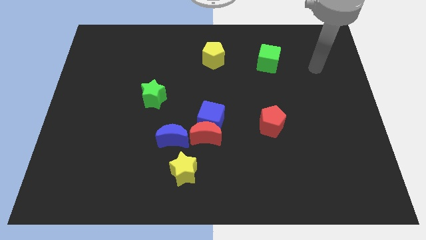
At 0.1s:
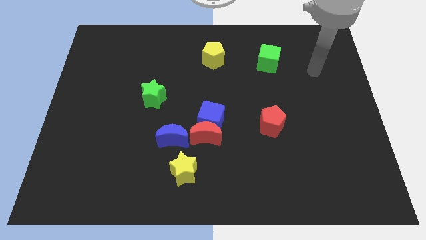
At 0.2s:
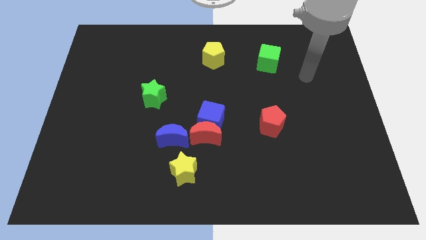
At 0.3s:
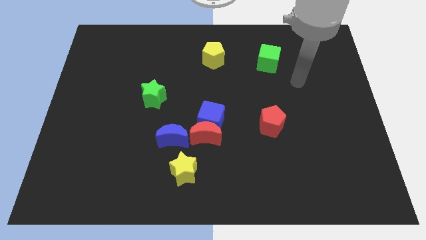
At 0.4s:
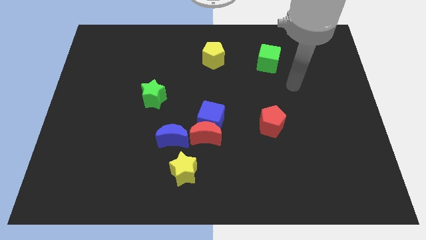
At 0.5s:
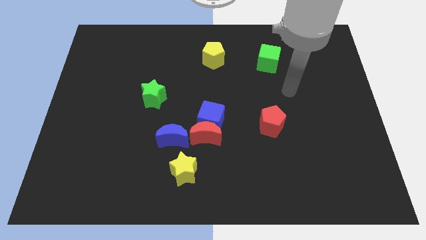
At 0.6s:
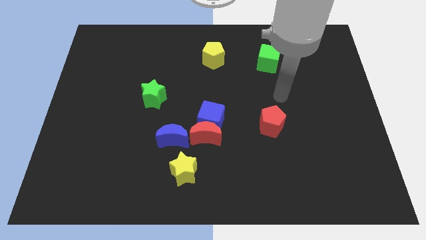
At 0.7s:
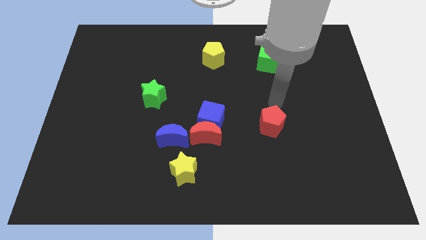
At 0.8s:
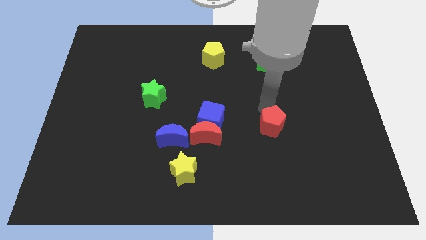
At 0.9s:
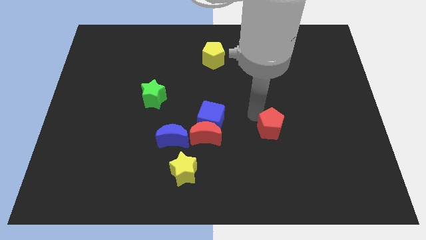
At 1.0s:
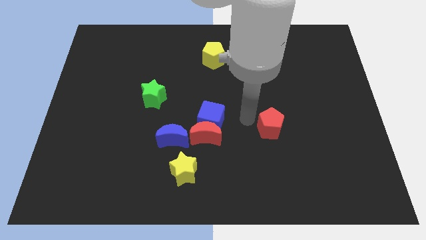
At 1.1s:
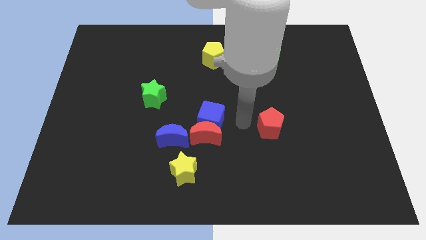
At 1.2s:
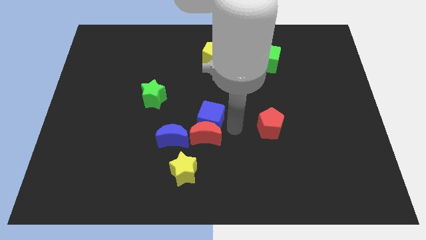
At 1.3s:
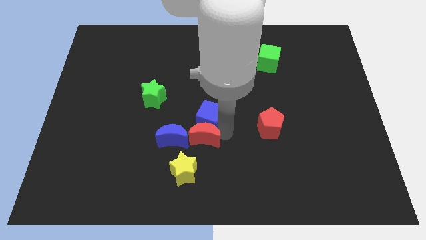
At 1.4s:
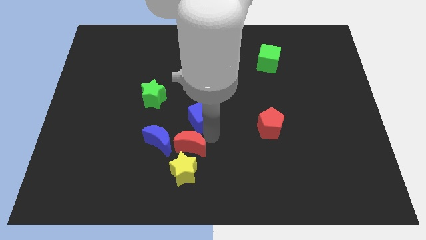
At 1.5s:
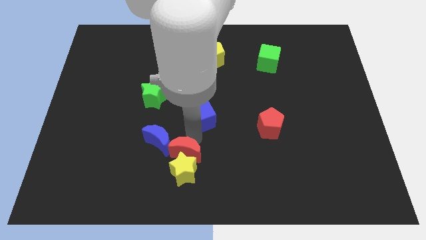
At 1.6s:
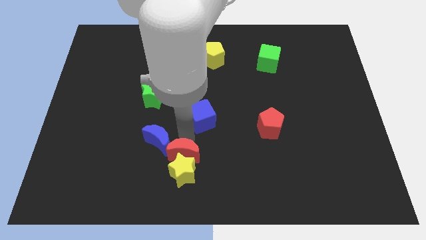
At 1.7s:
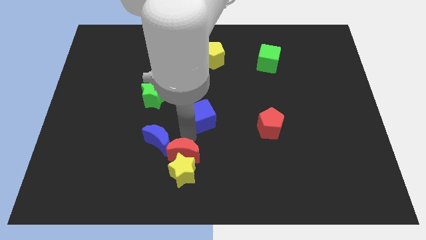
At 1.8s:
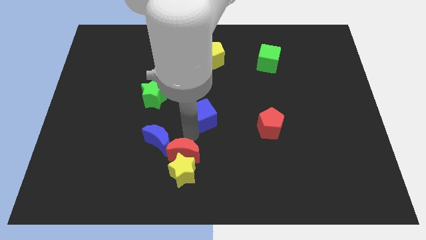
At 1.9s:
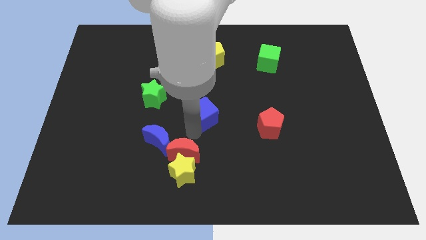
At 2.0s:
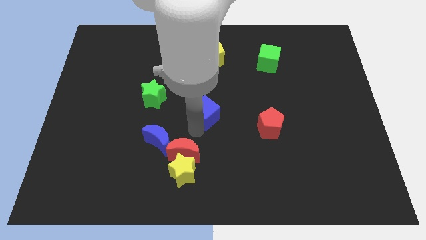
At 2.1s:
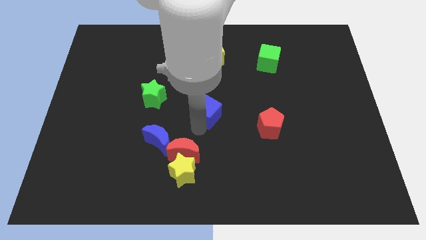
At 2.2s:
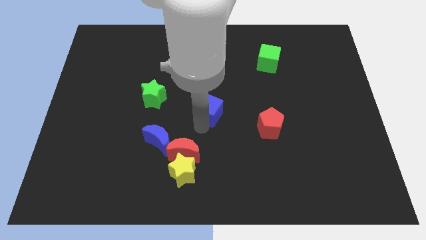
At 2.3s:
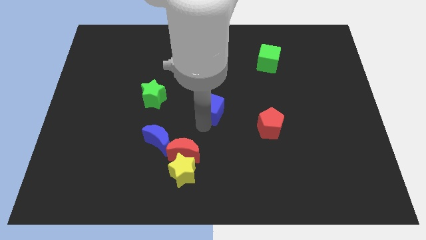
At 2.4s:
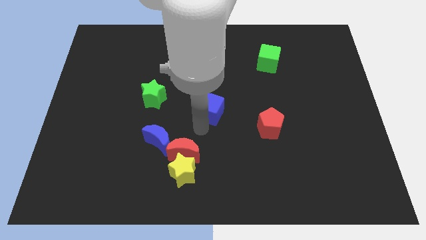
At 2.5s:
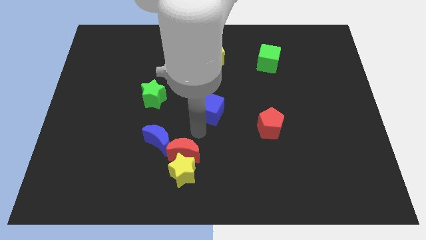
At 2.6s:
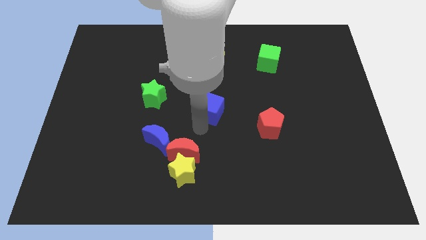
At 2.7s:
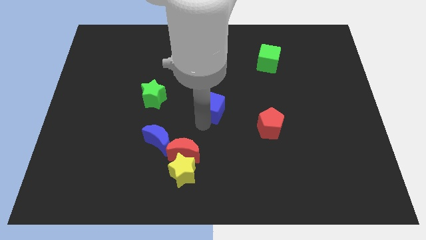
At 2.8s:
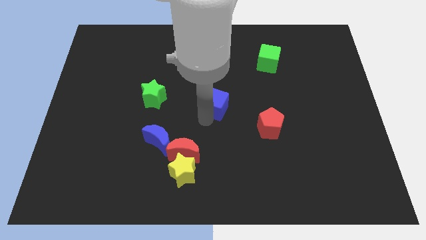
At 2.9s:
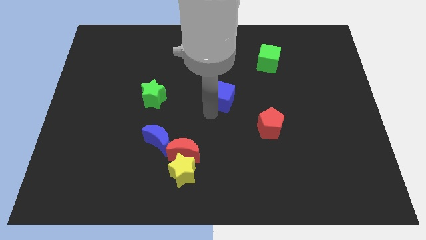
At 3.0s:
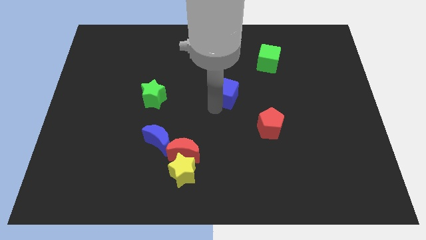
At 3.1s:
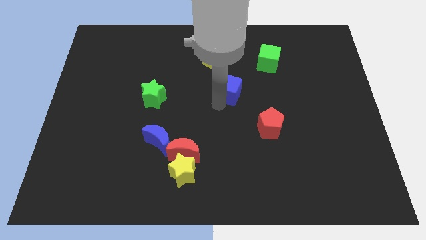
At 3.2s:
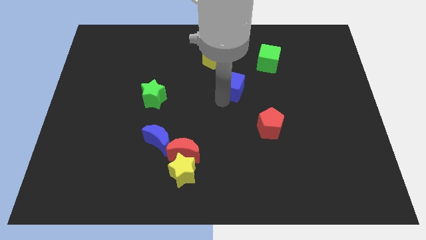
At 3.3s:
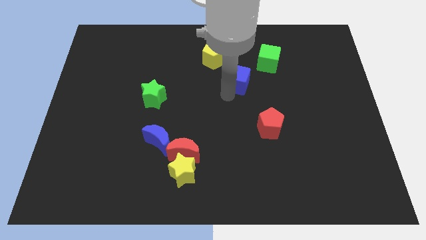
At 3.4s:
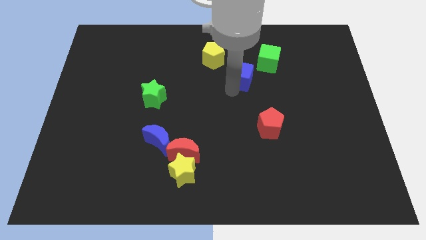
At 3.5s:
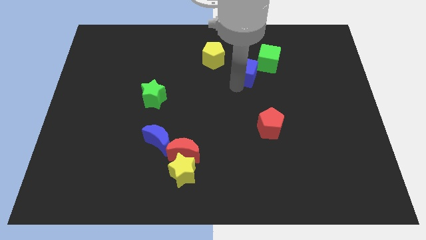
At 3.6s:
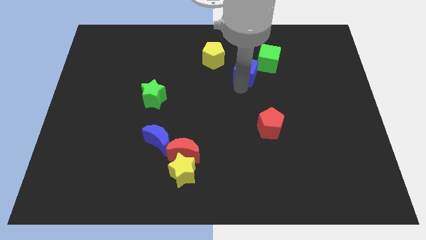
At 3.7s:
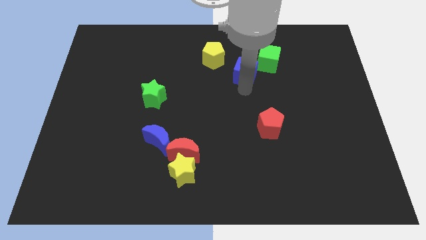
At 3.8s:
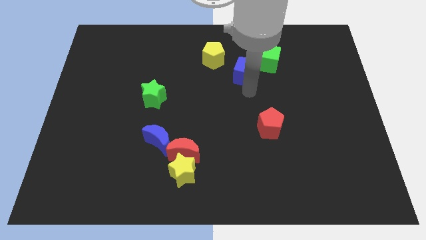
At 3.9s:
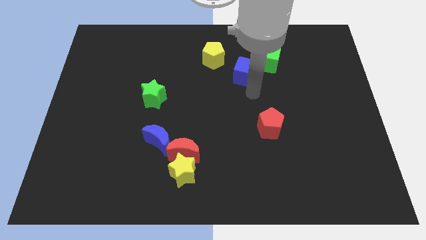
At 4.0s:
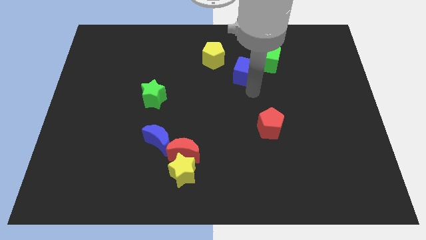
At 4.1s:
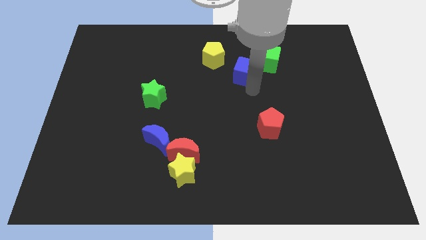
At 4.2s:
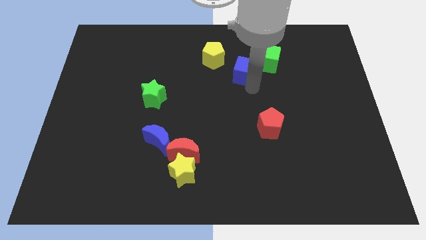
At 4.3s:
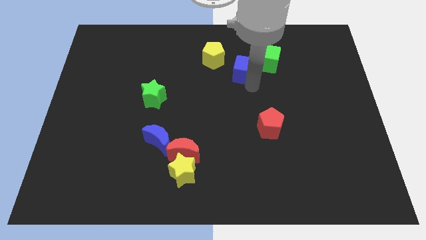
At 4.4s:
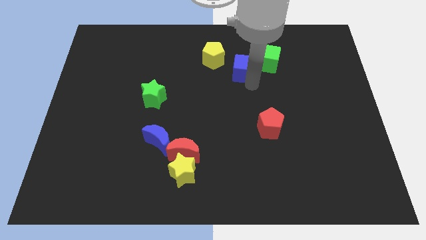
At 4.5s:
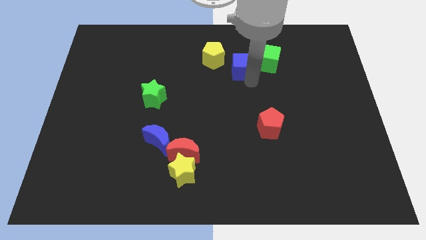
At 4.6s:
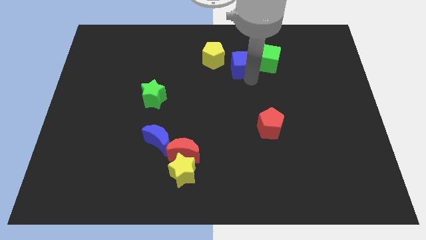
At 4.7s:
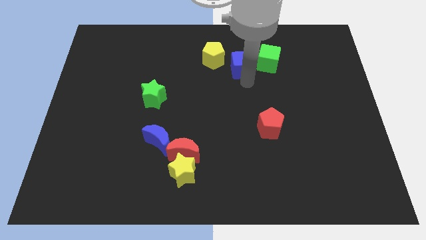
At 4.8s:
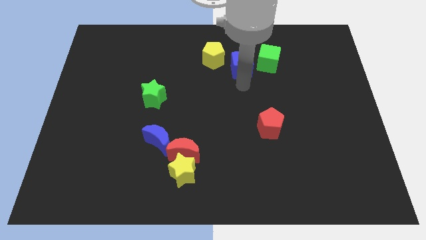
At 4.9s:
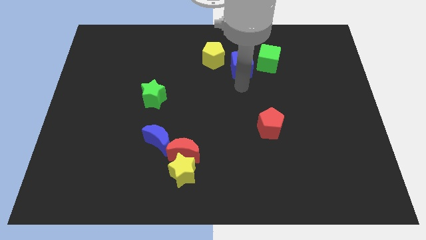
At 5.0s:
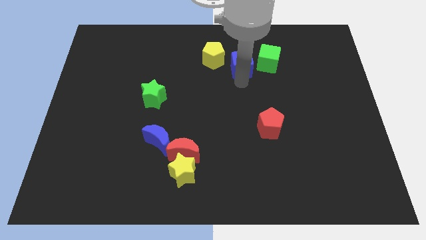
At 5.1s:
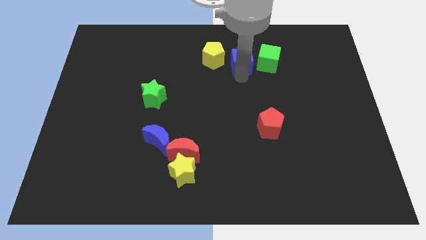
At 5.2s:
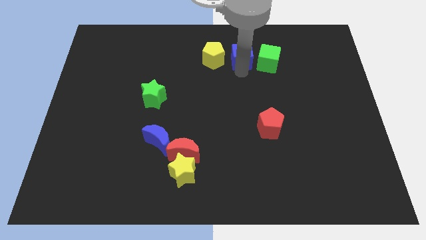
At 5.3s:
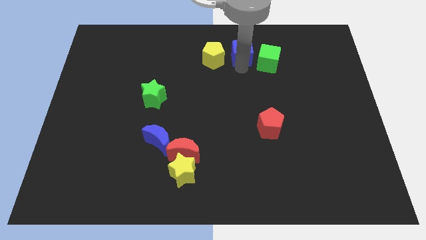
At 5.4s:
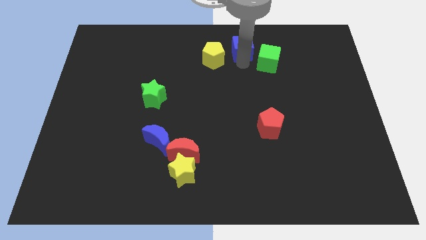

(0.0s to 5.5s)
move the blue cube to the towards your base
